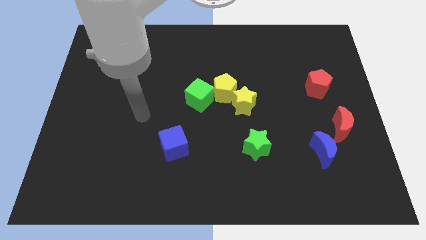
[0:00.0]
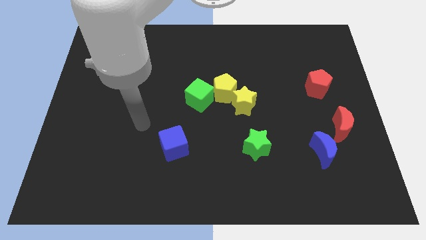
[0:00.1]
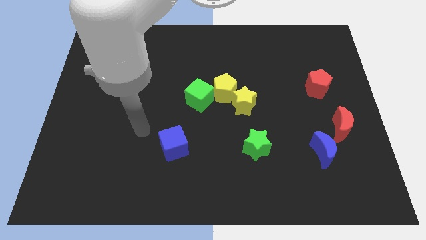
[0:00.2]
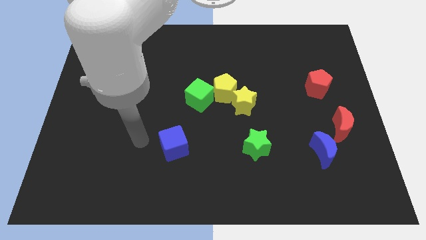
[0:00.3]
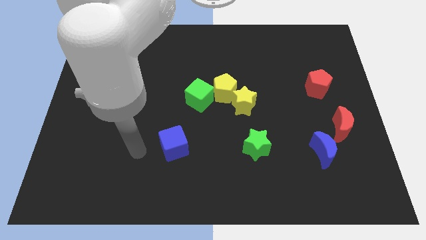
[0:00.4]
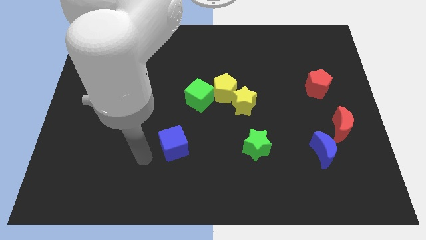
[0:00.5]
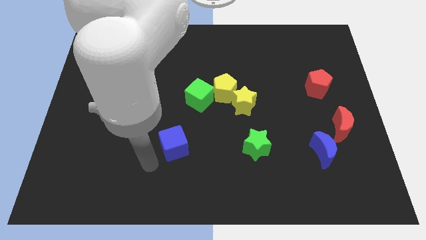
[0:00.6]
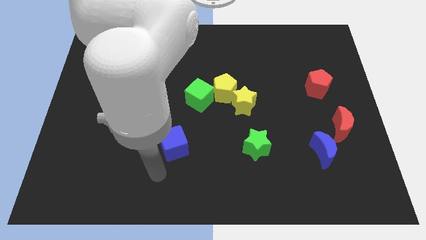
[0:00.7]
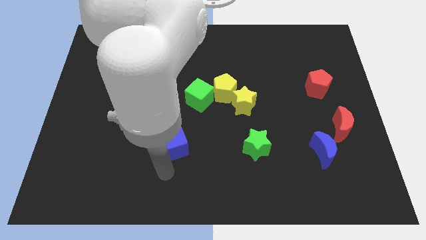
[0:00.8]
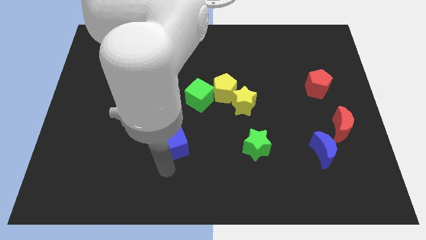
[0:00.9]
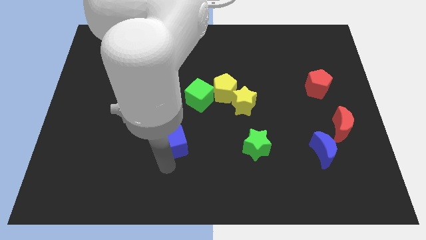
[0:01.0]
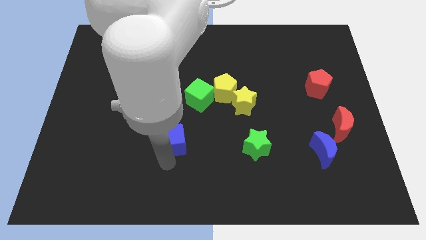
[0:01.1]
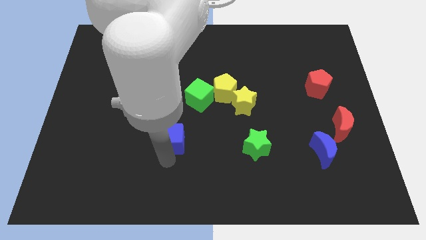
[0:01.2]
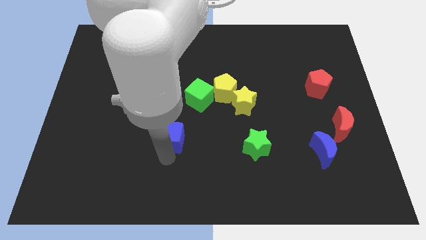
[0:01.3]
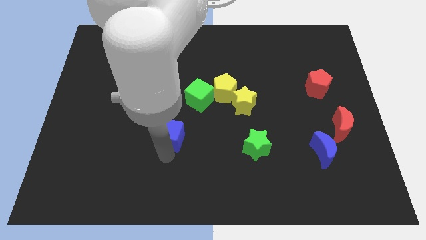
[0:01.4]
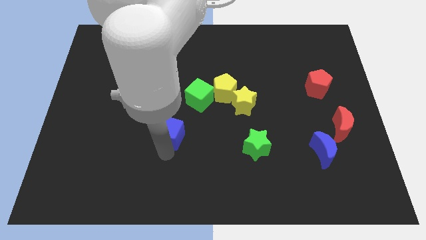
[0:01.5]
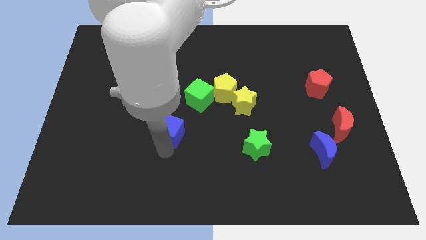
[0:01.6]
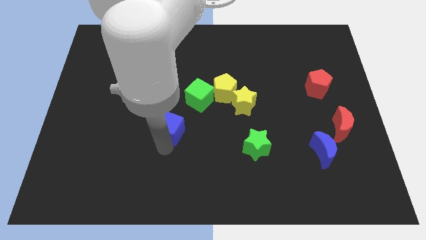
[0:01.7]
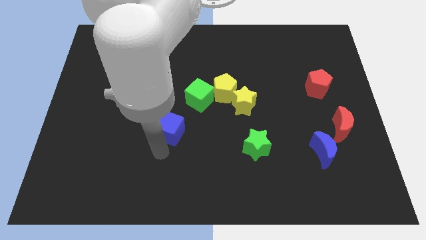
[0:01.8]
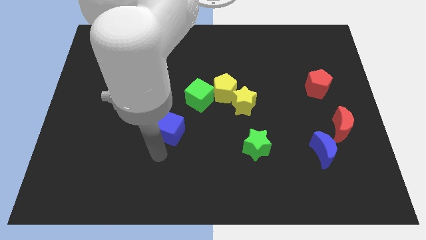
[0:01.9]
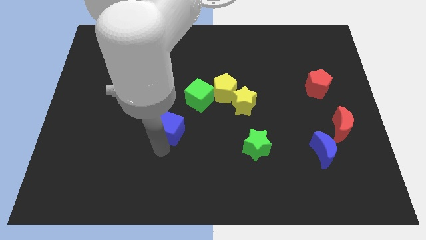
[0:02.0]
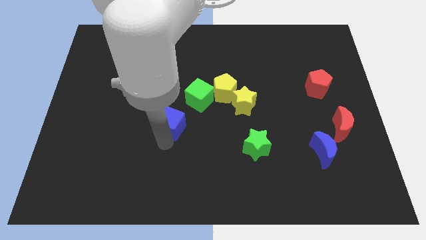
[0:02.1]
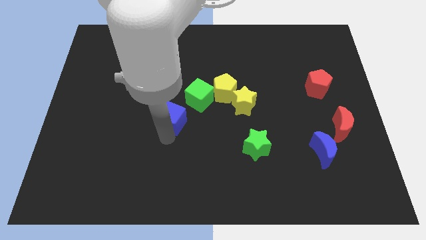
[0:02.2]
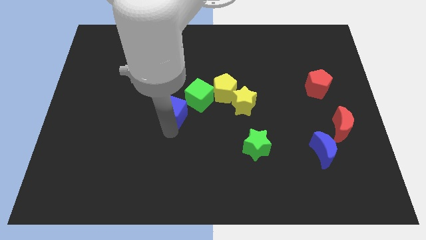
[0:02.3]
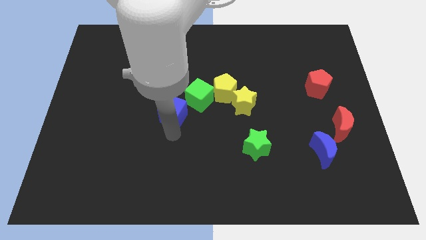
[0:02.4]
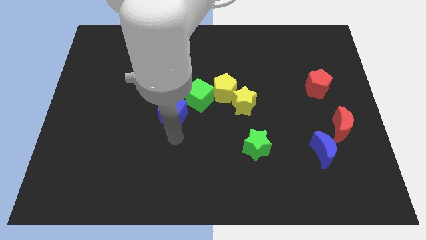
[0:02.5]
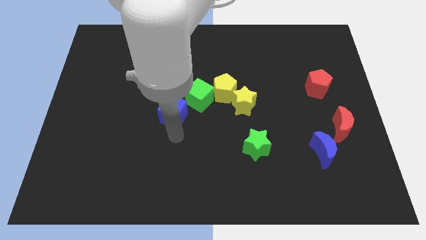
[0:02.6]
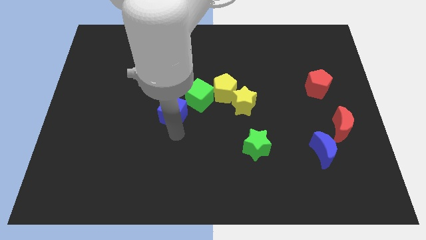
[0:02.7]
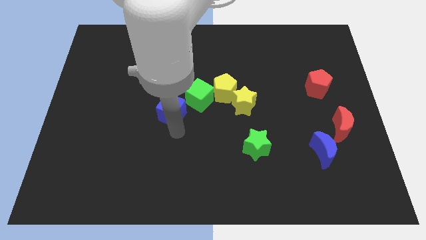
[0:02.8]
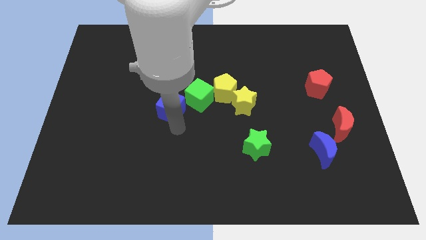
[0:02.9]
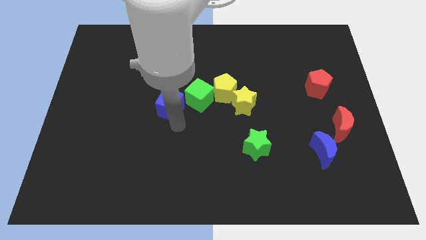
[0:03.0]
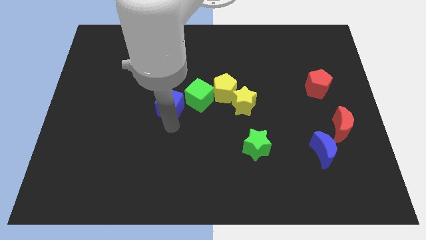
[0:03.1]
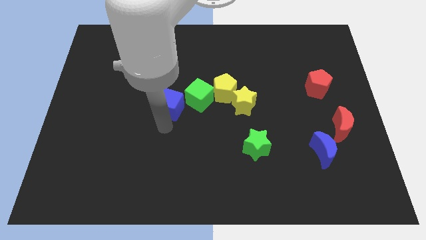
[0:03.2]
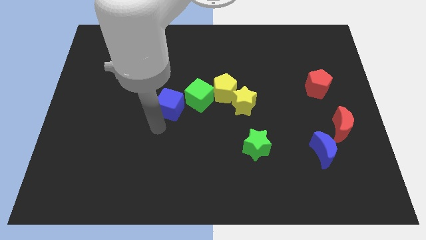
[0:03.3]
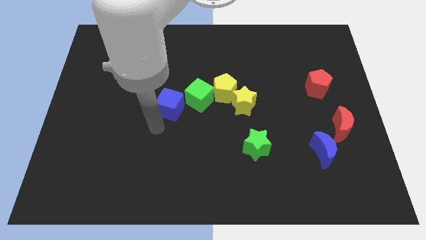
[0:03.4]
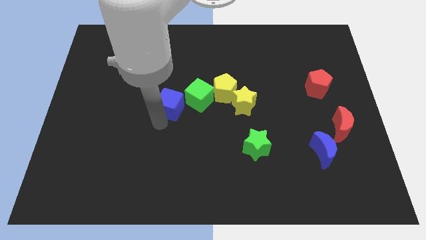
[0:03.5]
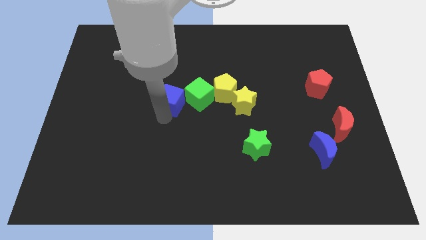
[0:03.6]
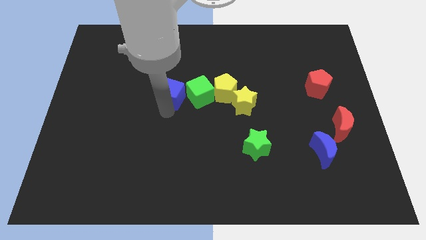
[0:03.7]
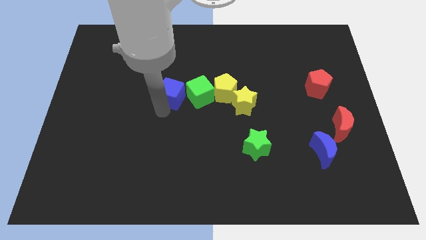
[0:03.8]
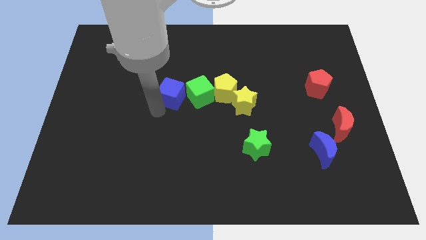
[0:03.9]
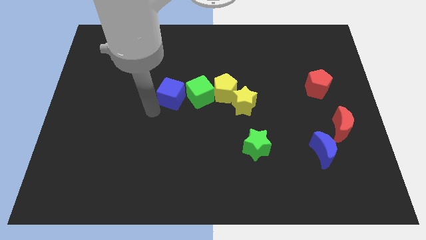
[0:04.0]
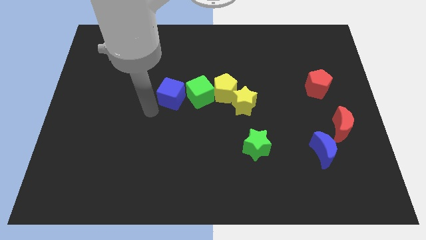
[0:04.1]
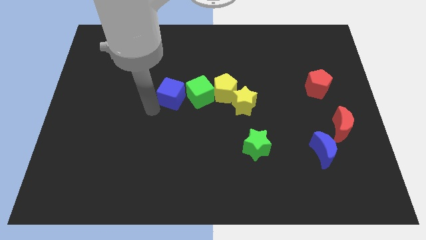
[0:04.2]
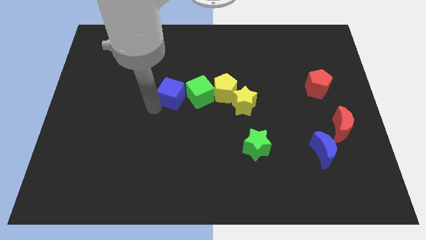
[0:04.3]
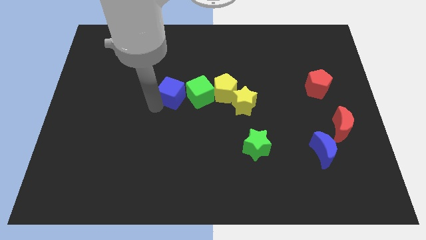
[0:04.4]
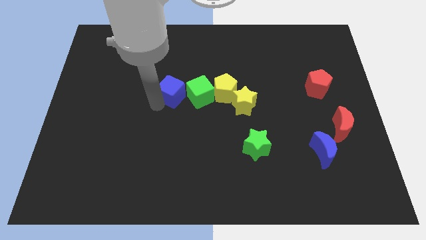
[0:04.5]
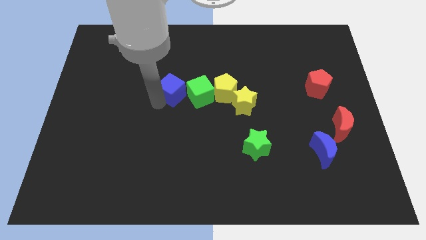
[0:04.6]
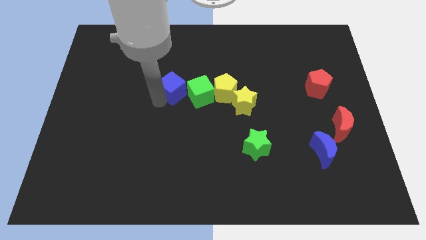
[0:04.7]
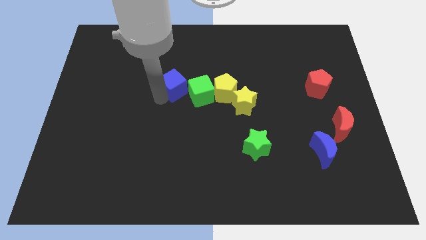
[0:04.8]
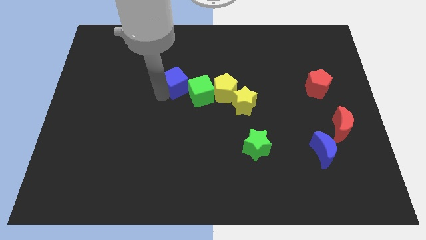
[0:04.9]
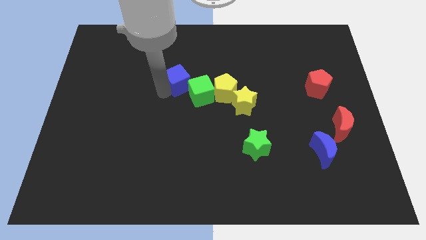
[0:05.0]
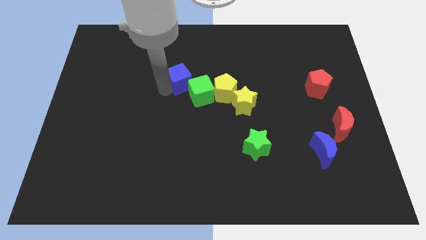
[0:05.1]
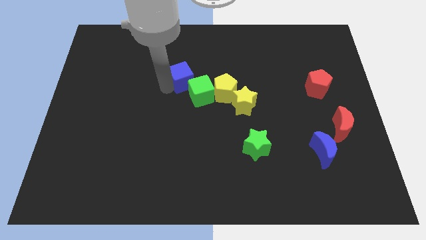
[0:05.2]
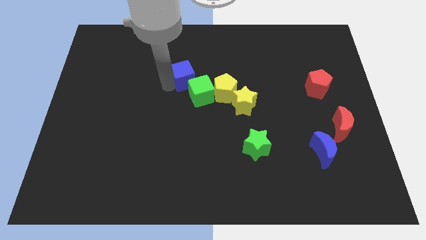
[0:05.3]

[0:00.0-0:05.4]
move the blue cube to the top left of the yellow pentagon

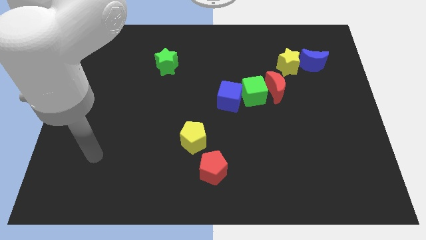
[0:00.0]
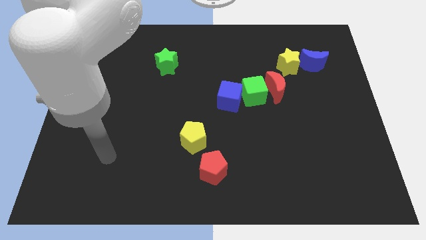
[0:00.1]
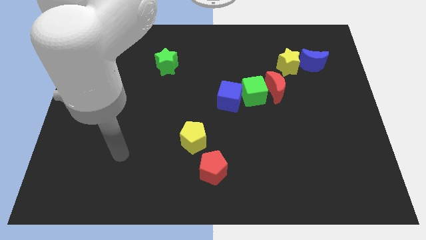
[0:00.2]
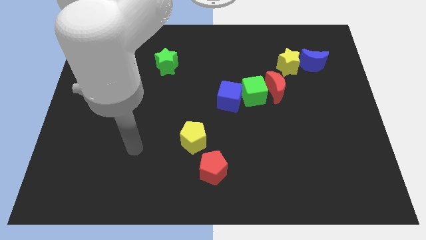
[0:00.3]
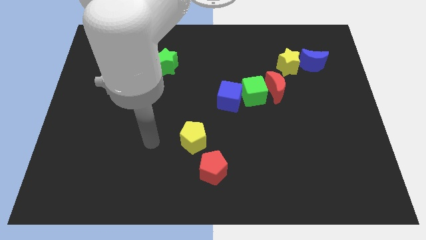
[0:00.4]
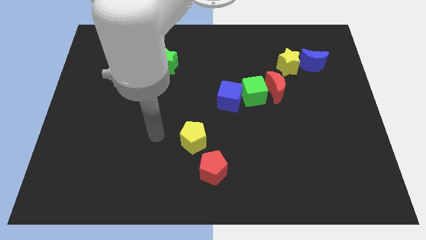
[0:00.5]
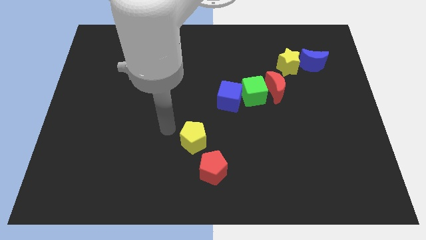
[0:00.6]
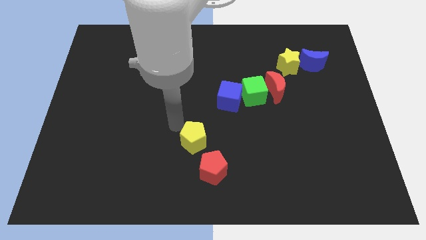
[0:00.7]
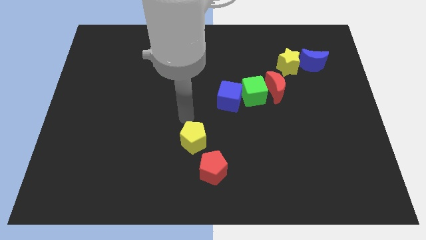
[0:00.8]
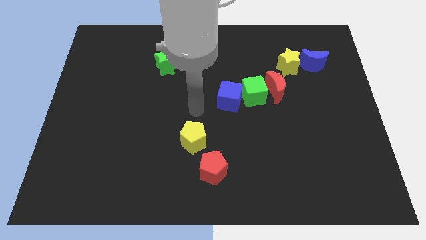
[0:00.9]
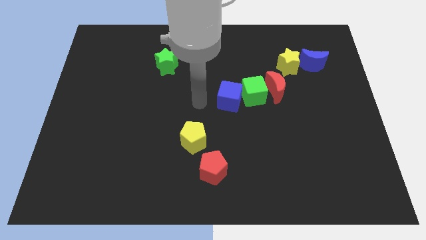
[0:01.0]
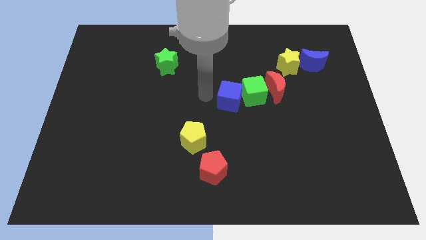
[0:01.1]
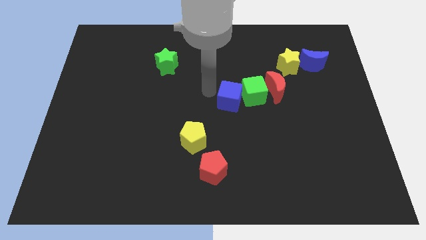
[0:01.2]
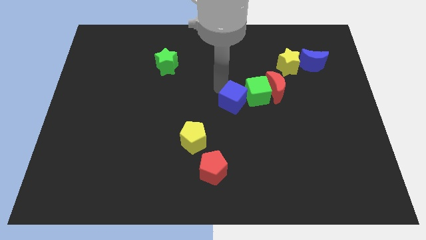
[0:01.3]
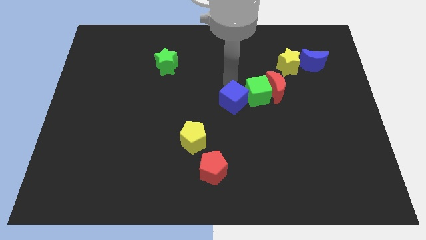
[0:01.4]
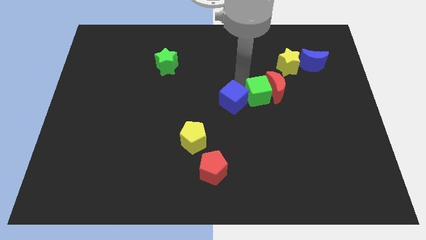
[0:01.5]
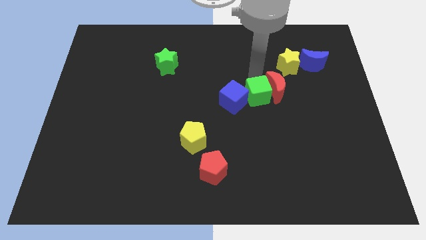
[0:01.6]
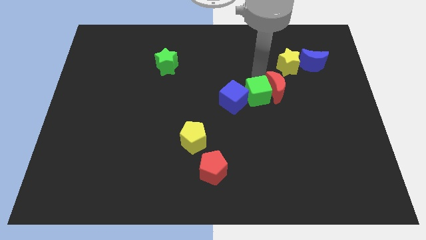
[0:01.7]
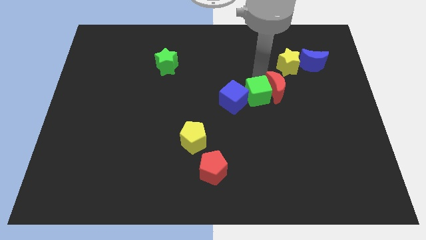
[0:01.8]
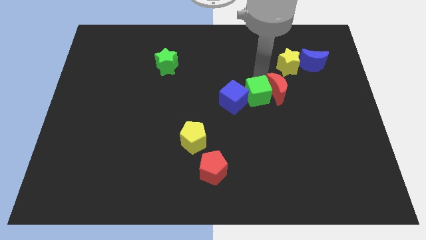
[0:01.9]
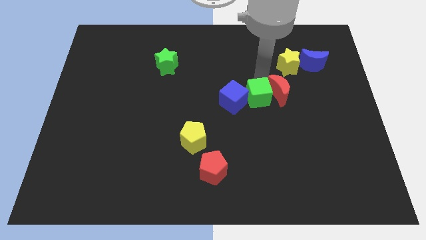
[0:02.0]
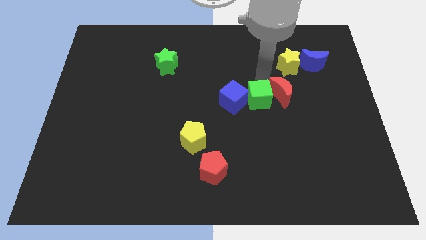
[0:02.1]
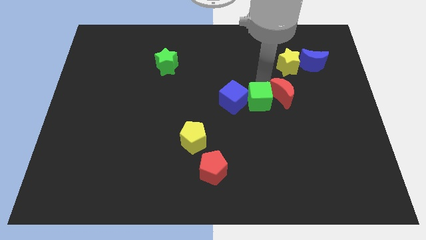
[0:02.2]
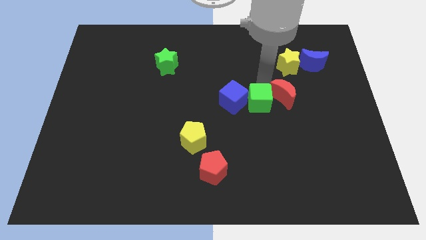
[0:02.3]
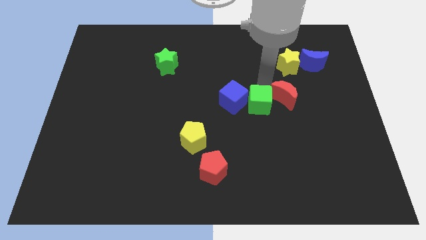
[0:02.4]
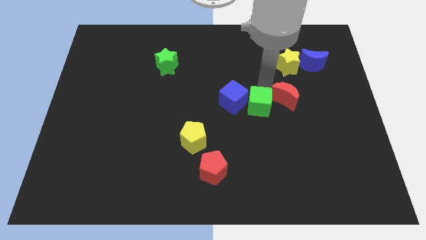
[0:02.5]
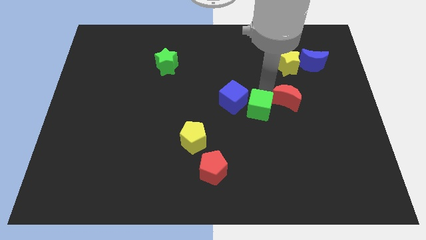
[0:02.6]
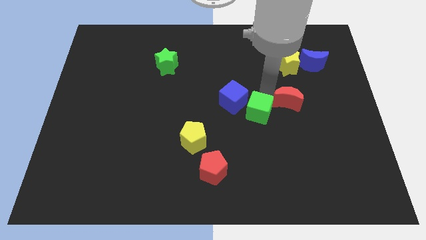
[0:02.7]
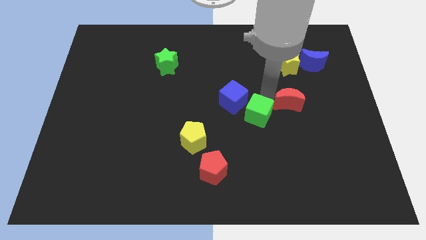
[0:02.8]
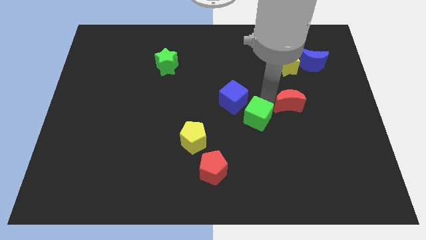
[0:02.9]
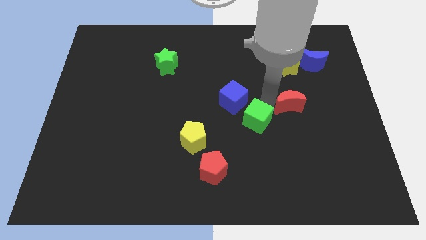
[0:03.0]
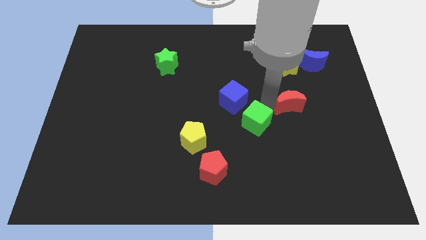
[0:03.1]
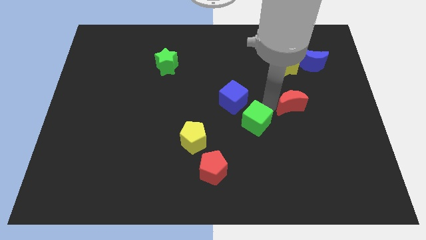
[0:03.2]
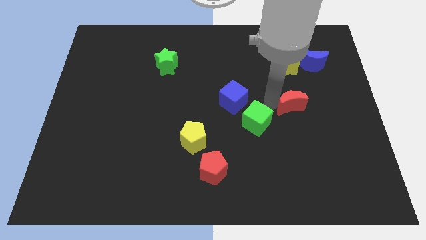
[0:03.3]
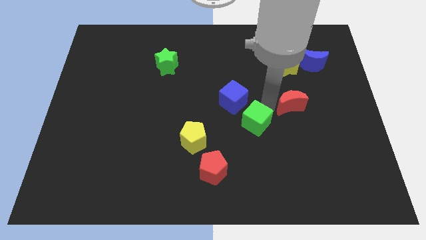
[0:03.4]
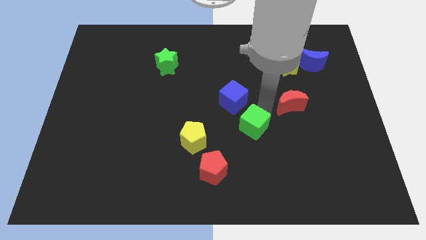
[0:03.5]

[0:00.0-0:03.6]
put the green cube just right of the yellow pentagon
